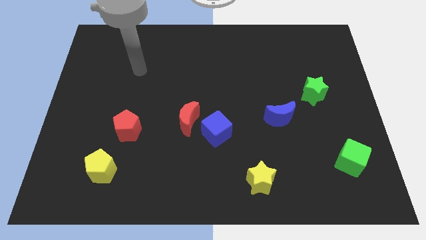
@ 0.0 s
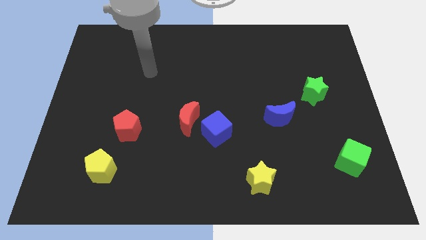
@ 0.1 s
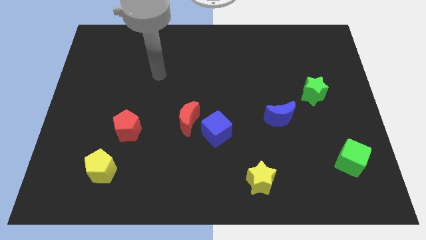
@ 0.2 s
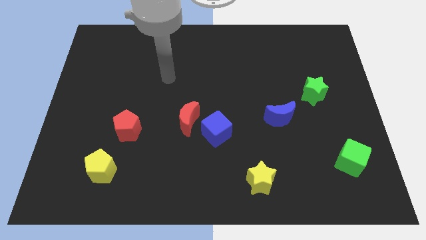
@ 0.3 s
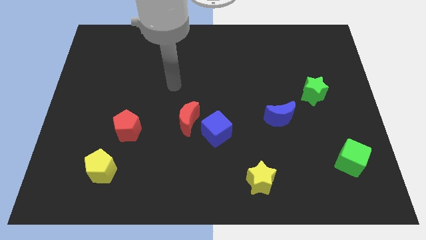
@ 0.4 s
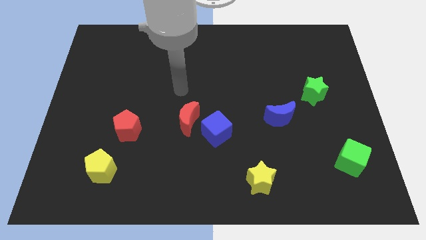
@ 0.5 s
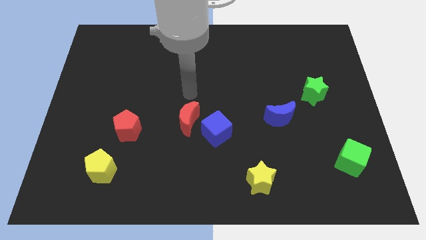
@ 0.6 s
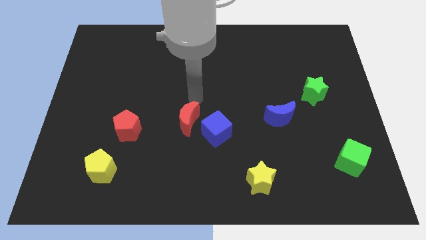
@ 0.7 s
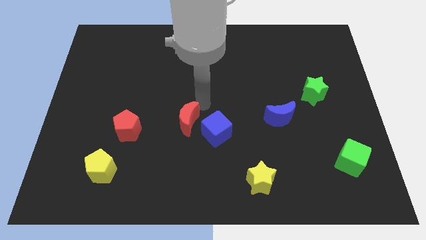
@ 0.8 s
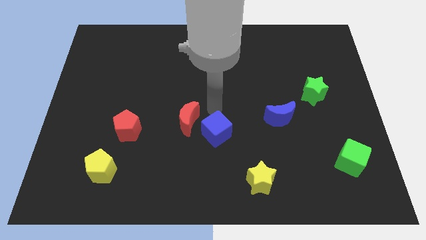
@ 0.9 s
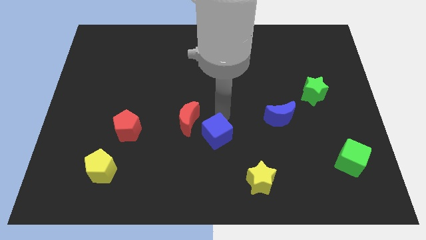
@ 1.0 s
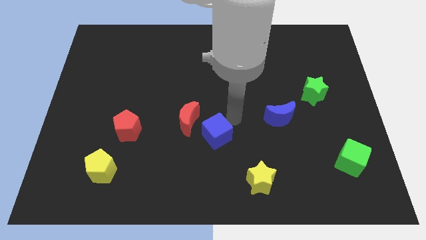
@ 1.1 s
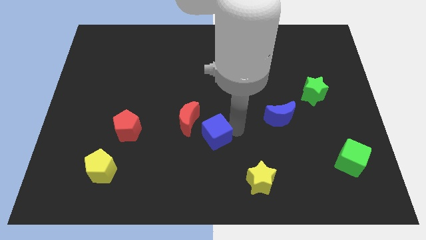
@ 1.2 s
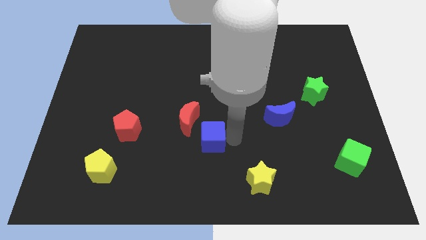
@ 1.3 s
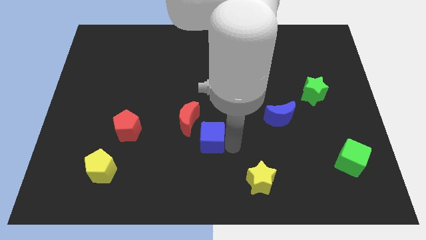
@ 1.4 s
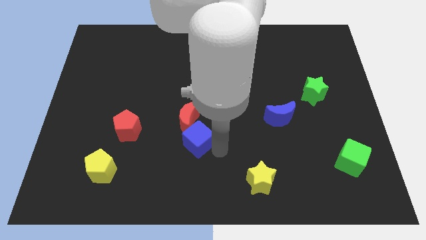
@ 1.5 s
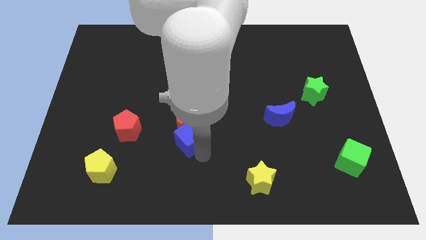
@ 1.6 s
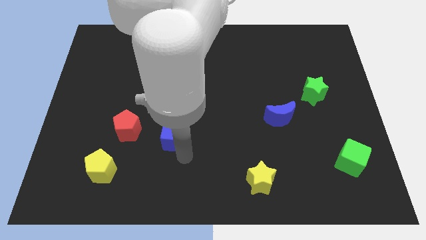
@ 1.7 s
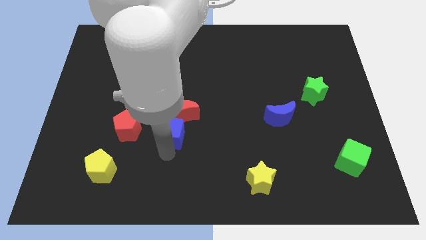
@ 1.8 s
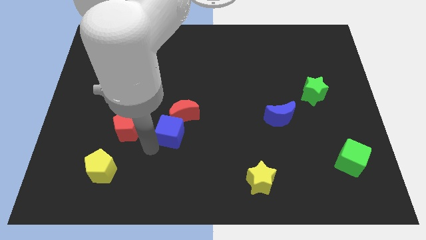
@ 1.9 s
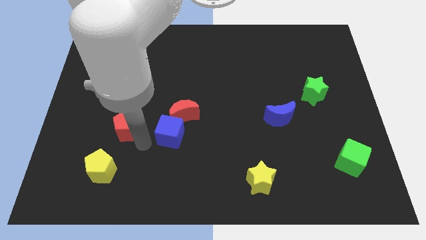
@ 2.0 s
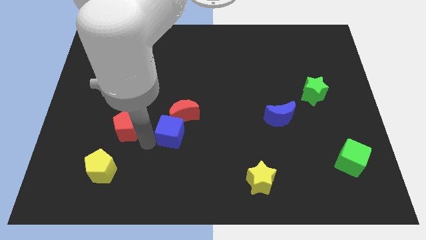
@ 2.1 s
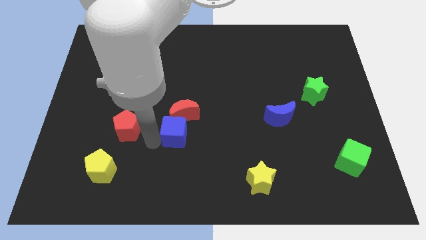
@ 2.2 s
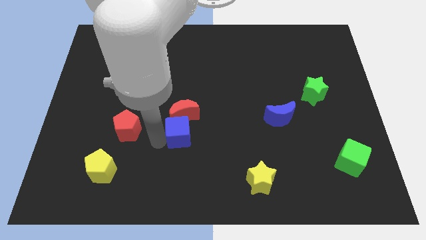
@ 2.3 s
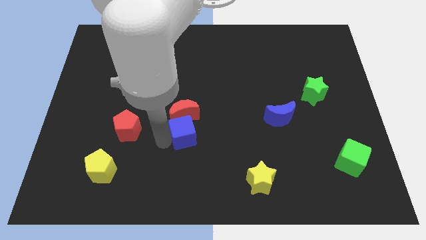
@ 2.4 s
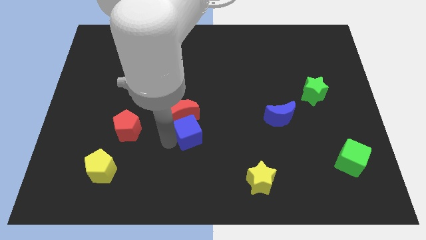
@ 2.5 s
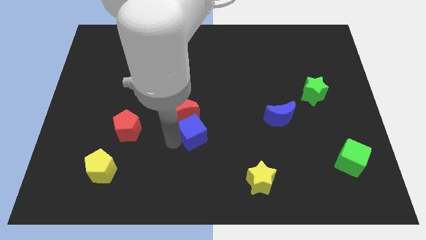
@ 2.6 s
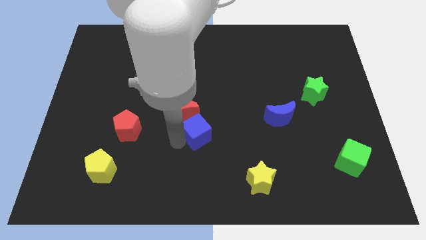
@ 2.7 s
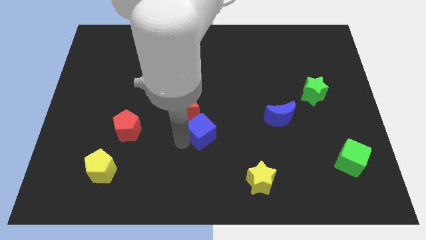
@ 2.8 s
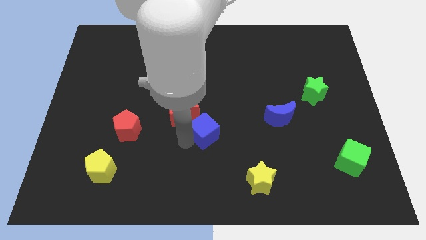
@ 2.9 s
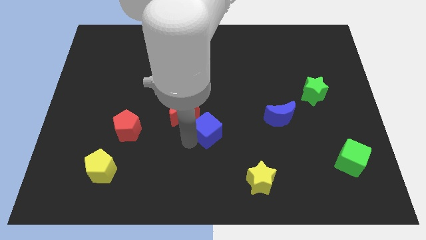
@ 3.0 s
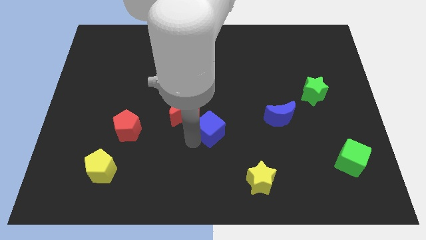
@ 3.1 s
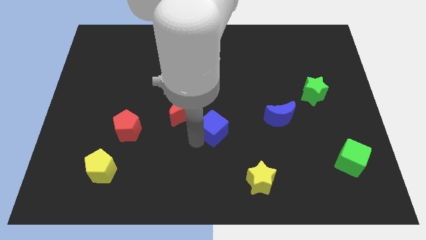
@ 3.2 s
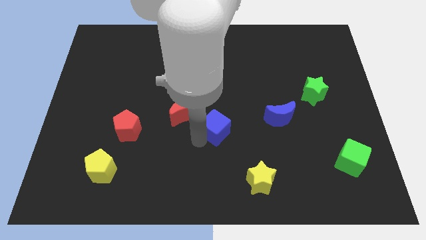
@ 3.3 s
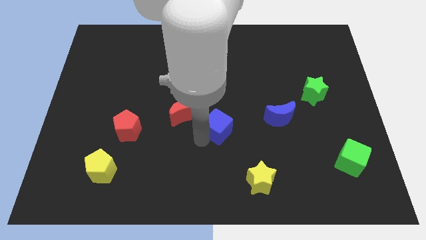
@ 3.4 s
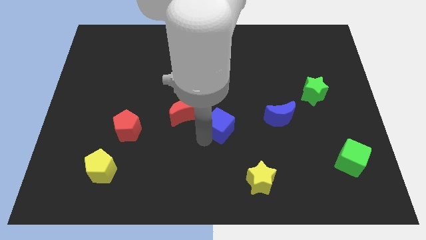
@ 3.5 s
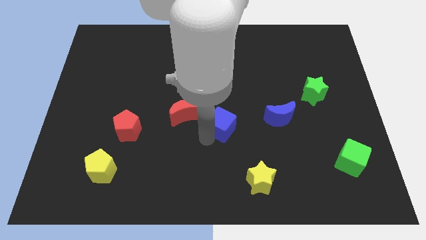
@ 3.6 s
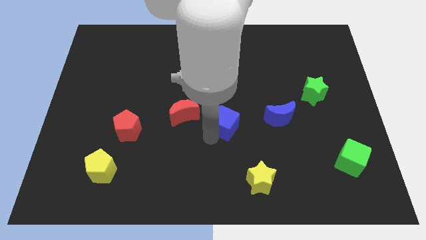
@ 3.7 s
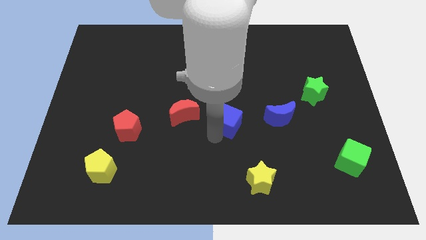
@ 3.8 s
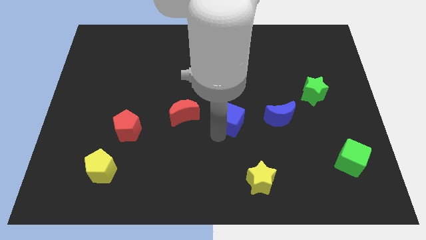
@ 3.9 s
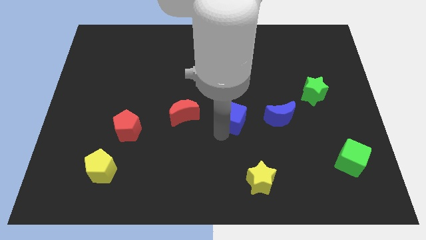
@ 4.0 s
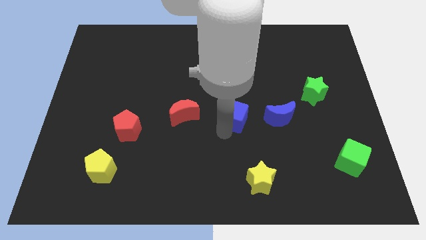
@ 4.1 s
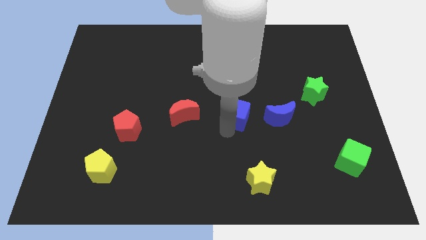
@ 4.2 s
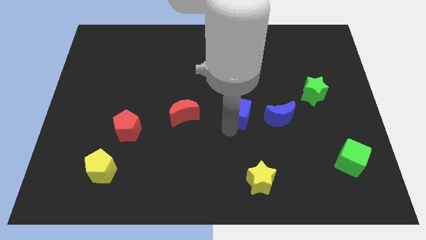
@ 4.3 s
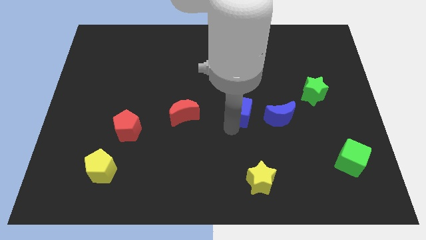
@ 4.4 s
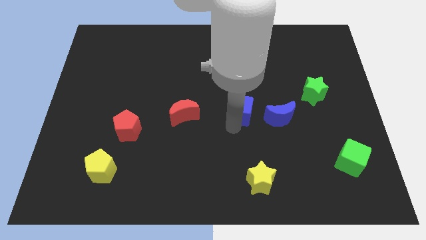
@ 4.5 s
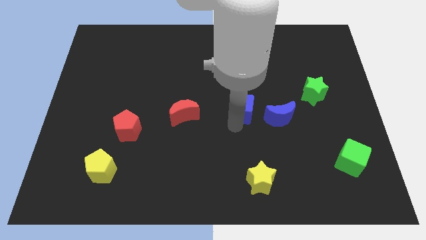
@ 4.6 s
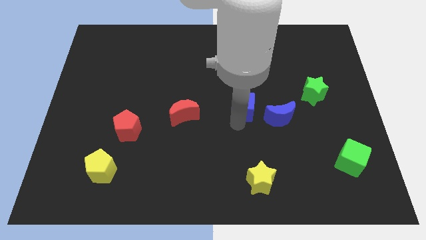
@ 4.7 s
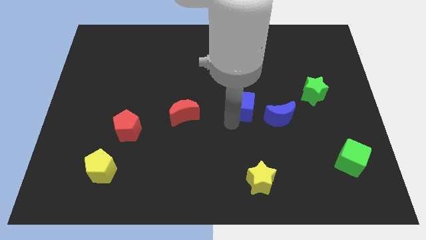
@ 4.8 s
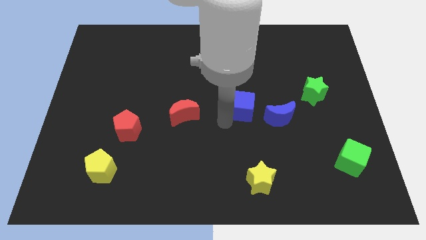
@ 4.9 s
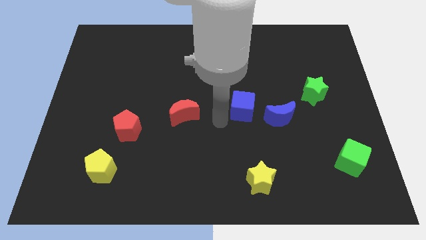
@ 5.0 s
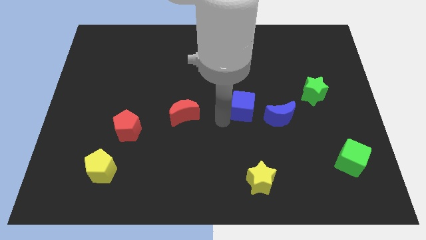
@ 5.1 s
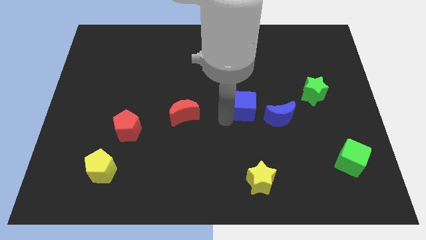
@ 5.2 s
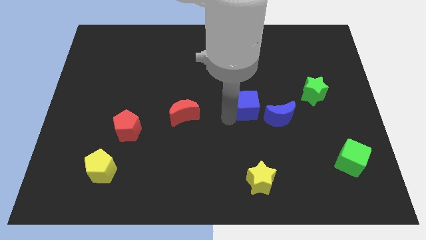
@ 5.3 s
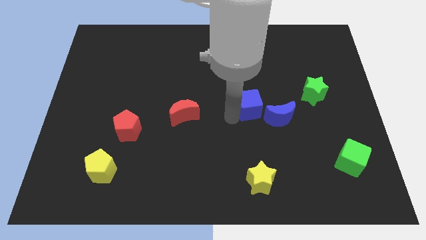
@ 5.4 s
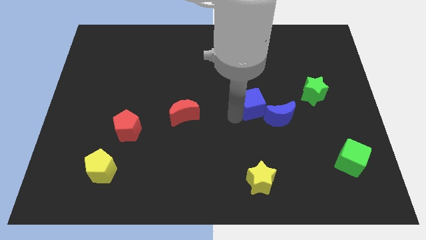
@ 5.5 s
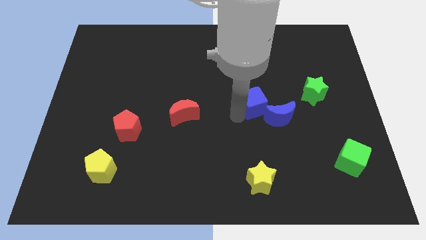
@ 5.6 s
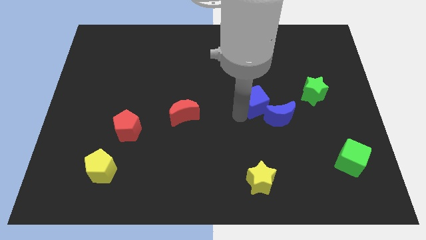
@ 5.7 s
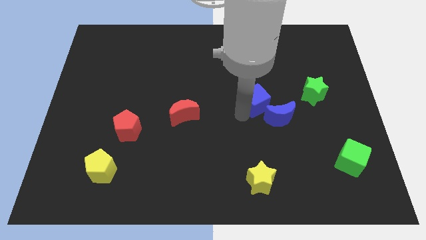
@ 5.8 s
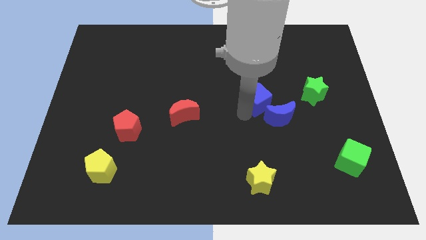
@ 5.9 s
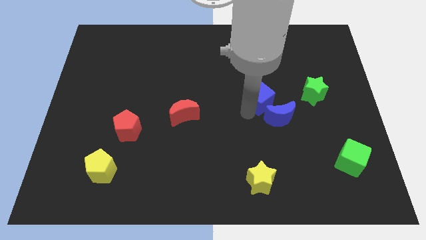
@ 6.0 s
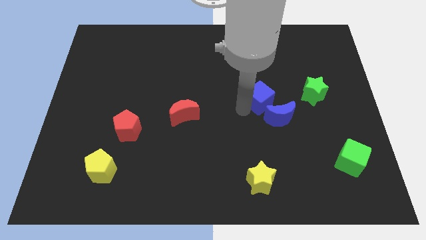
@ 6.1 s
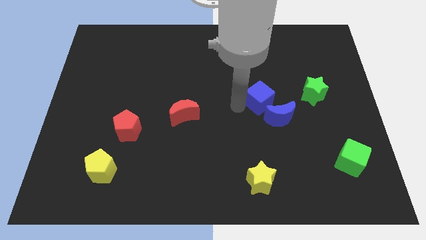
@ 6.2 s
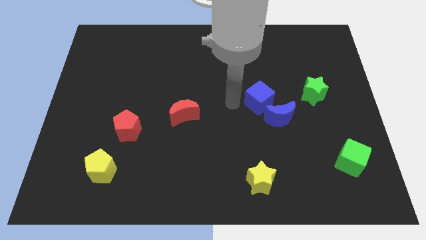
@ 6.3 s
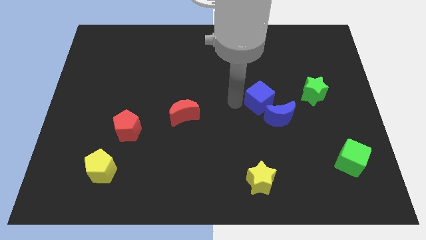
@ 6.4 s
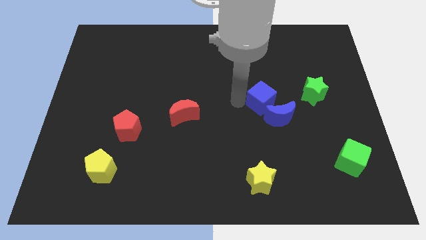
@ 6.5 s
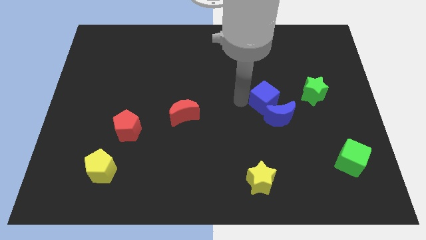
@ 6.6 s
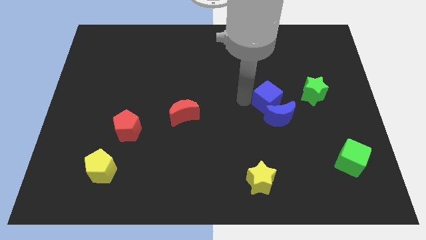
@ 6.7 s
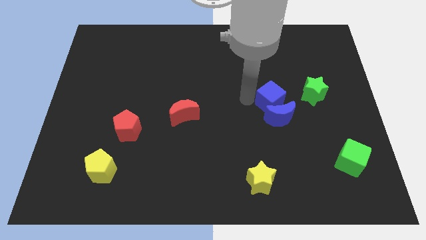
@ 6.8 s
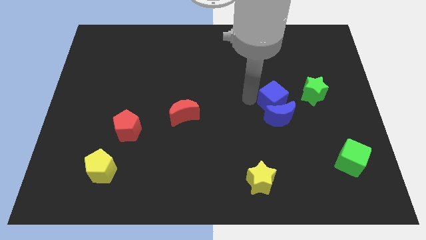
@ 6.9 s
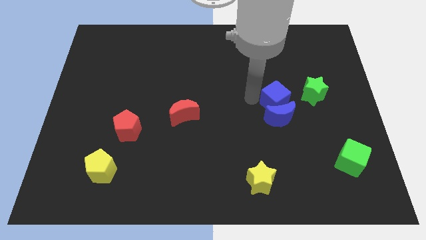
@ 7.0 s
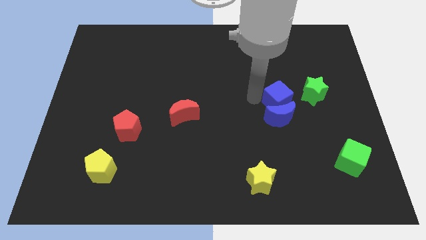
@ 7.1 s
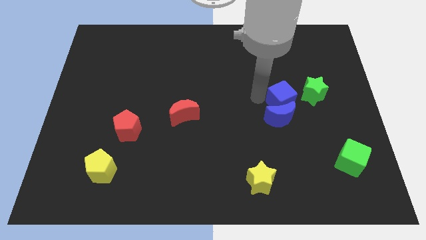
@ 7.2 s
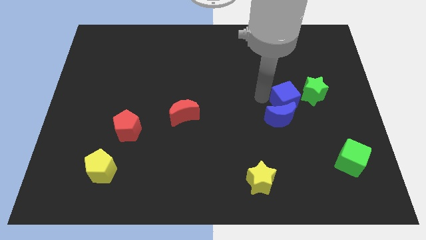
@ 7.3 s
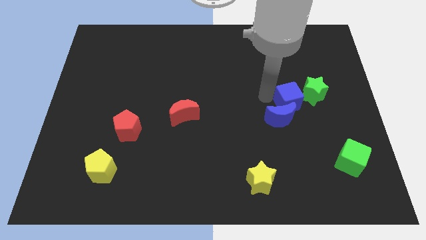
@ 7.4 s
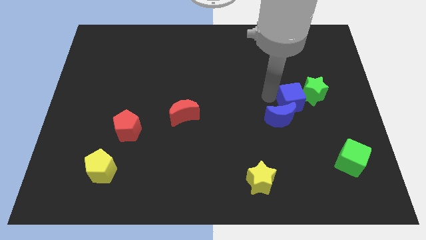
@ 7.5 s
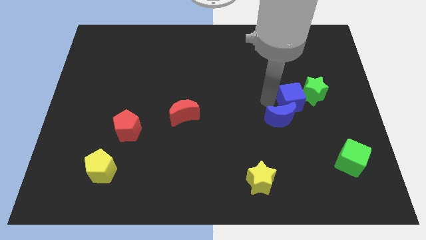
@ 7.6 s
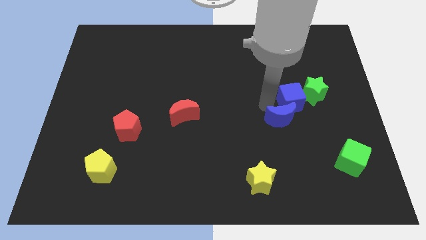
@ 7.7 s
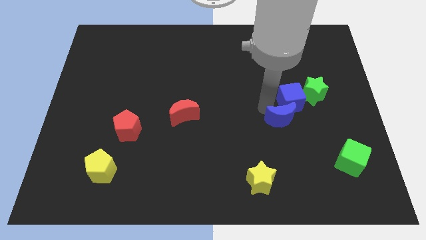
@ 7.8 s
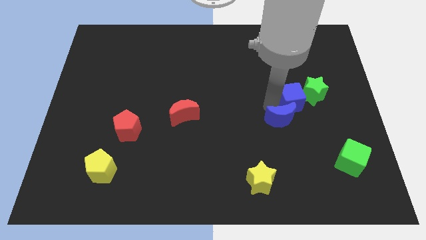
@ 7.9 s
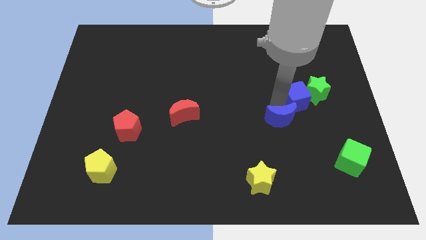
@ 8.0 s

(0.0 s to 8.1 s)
move the blue cube next to the green star
